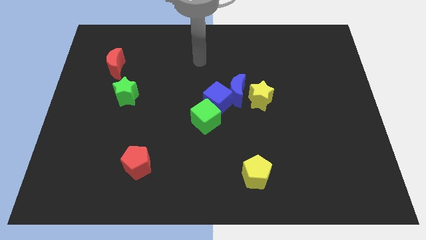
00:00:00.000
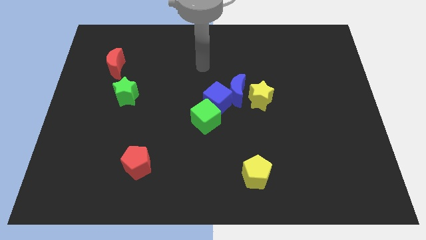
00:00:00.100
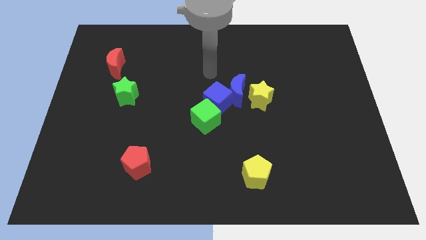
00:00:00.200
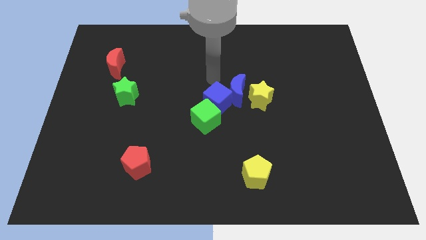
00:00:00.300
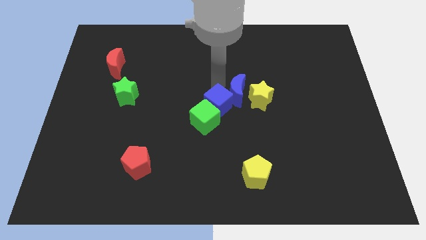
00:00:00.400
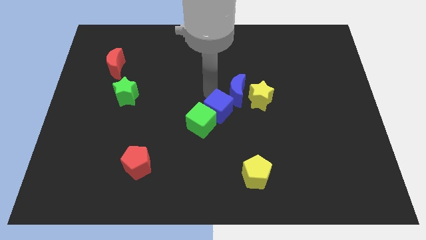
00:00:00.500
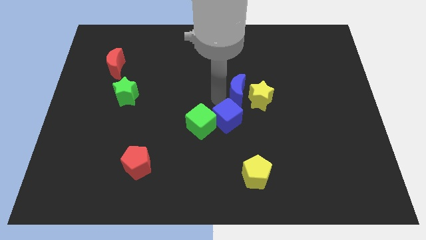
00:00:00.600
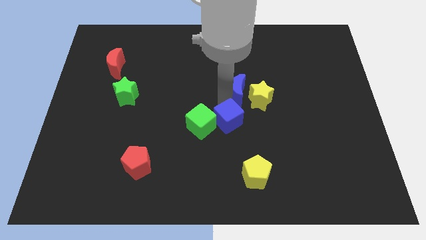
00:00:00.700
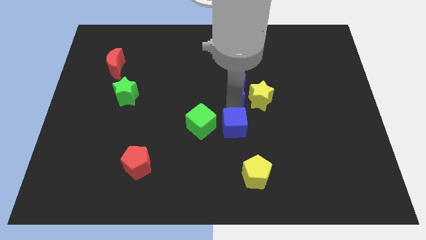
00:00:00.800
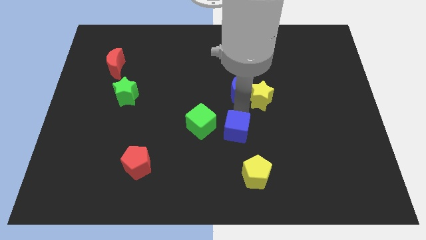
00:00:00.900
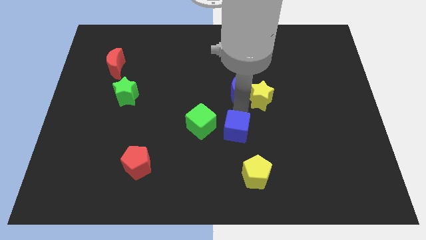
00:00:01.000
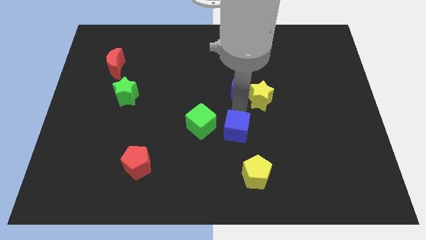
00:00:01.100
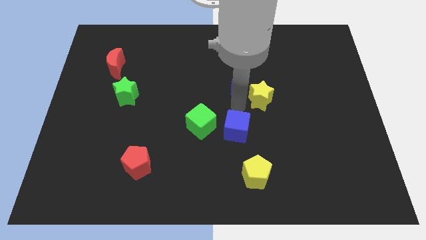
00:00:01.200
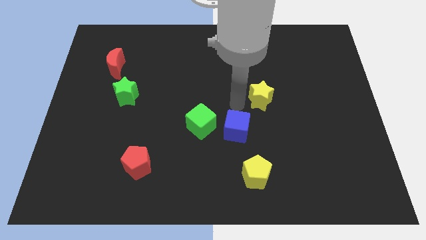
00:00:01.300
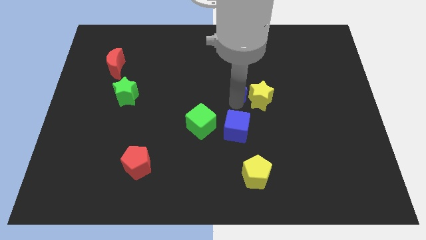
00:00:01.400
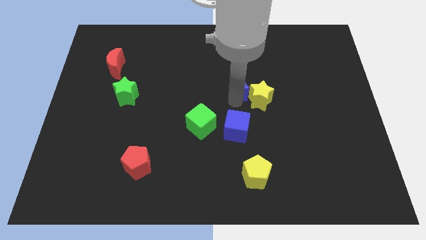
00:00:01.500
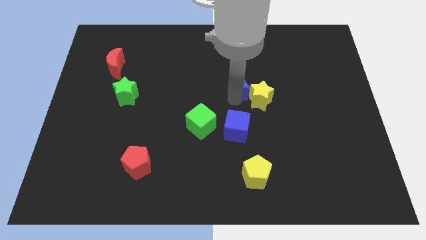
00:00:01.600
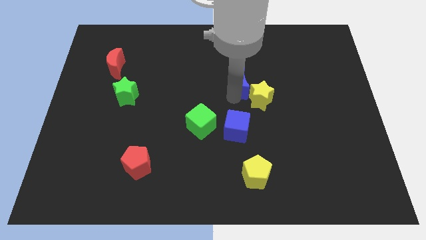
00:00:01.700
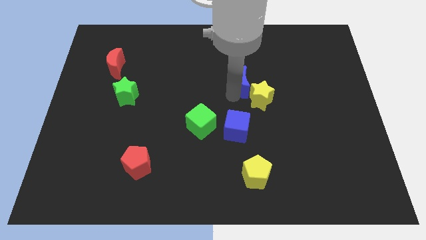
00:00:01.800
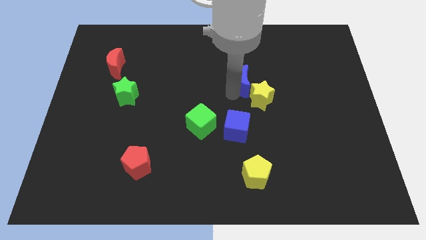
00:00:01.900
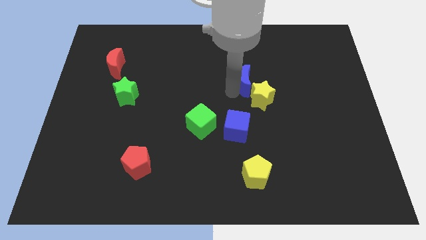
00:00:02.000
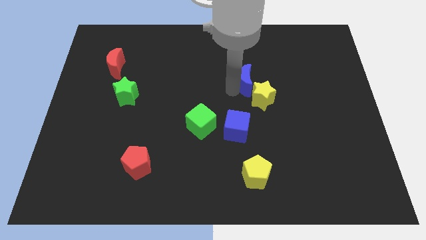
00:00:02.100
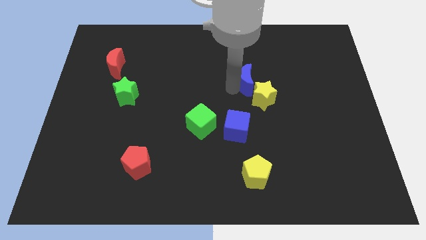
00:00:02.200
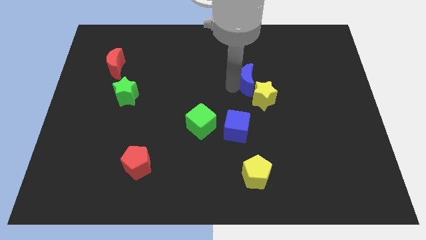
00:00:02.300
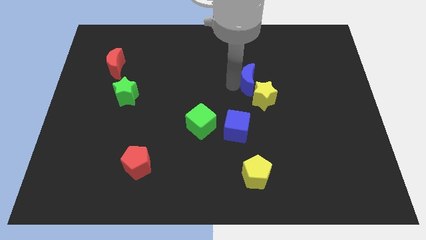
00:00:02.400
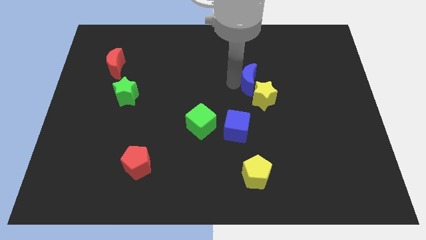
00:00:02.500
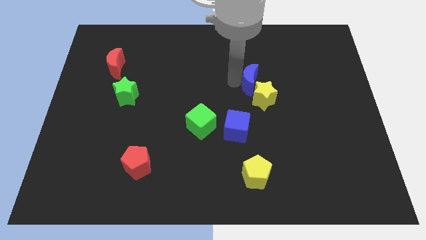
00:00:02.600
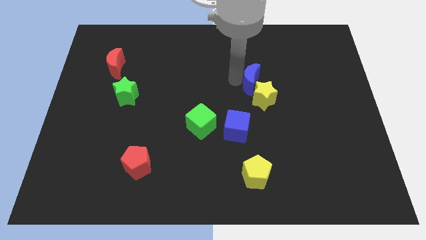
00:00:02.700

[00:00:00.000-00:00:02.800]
pull the blue moon apart from the blue cube and yellow star

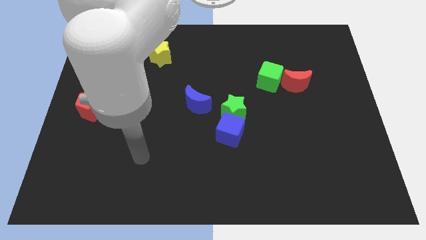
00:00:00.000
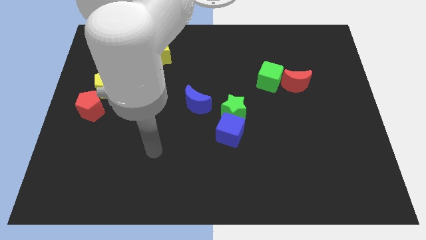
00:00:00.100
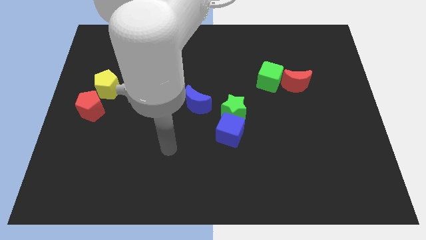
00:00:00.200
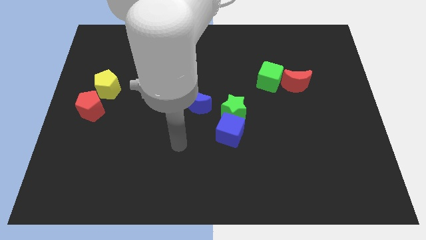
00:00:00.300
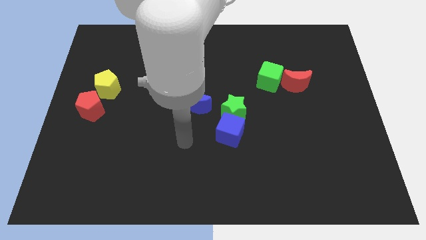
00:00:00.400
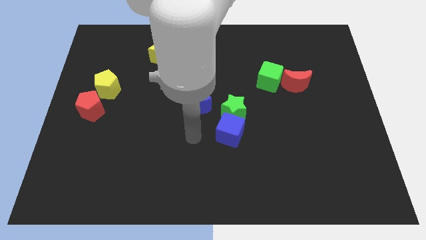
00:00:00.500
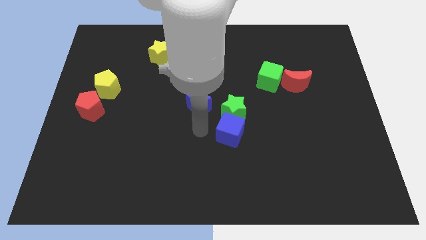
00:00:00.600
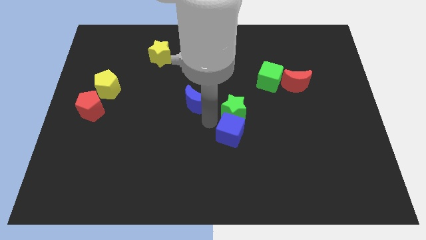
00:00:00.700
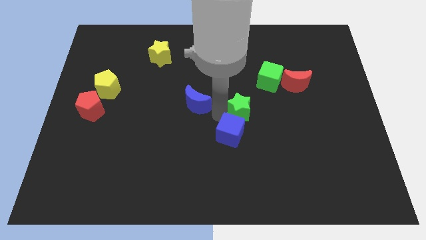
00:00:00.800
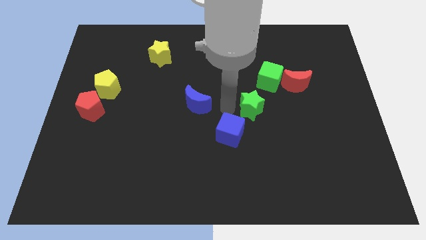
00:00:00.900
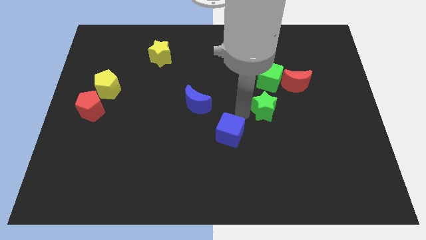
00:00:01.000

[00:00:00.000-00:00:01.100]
separate the blue cube from the green star

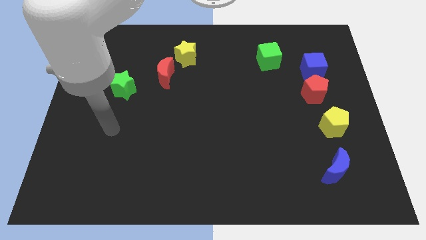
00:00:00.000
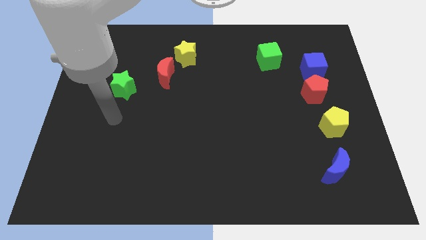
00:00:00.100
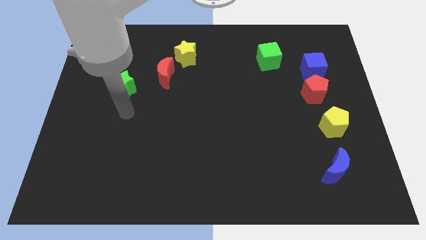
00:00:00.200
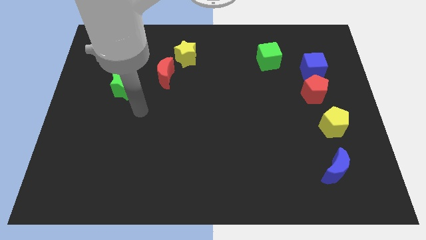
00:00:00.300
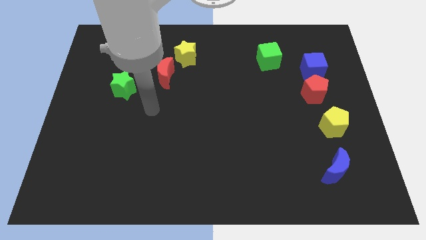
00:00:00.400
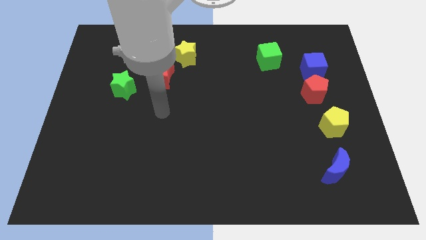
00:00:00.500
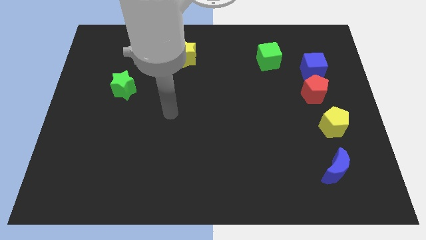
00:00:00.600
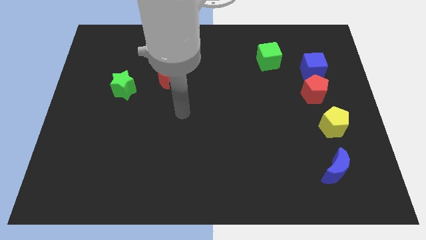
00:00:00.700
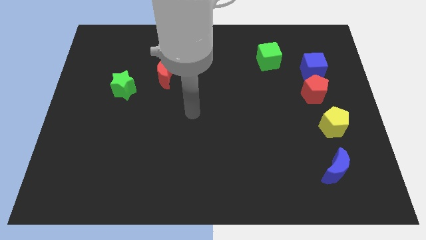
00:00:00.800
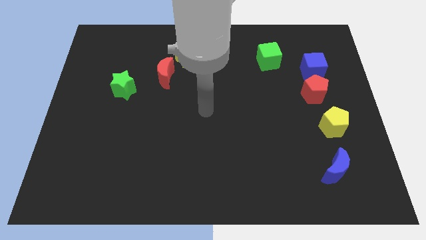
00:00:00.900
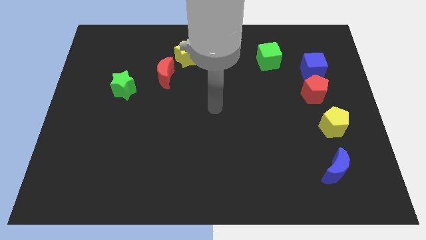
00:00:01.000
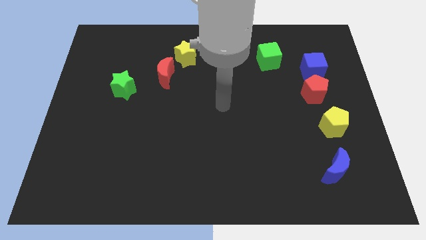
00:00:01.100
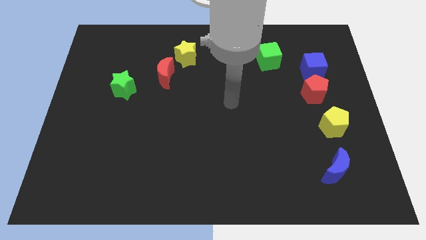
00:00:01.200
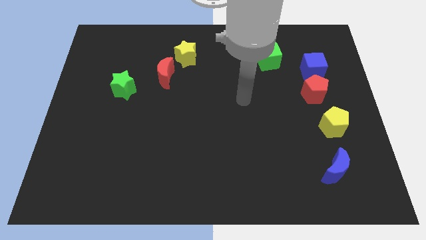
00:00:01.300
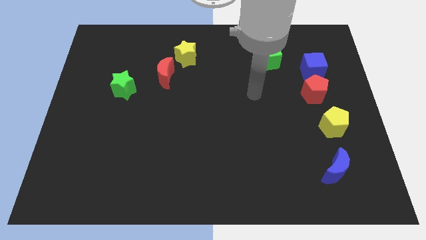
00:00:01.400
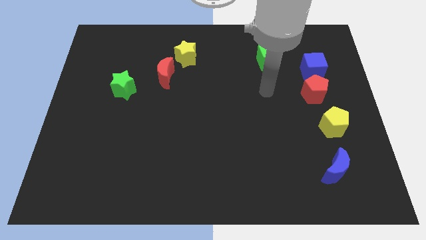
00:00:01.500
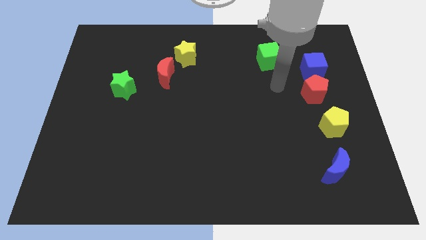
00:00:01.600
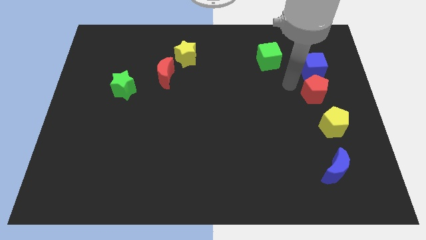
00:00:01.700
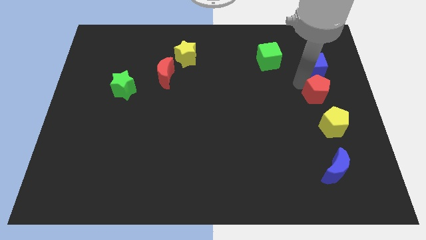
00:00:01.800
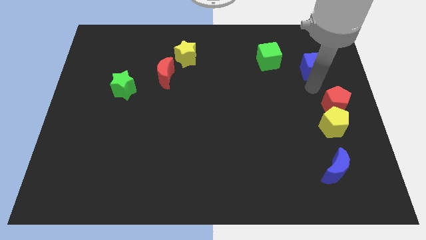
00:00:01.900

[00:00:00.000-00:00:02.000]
move the blue cube away from the red pentagon

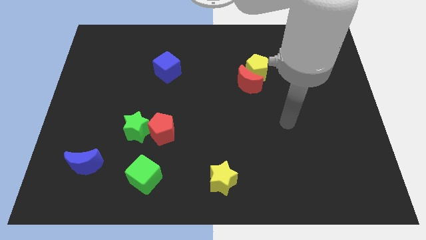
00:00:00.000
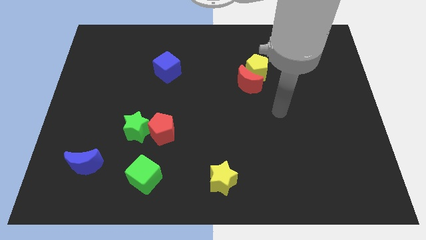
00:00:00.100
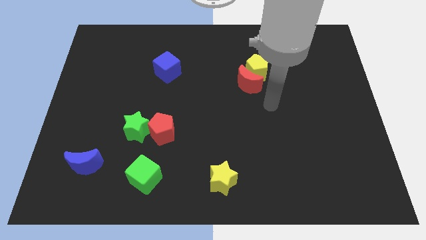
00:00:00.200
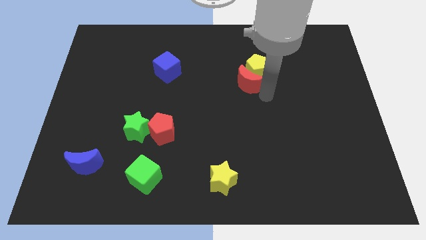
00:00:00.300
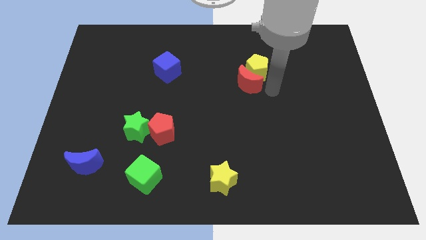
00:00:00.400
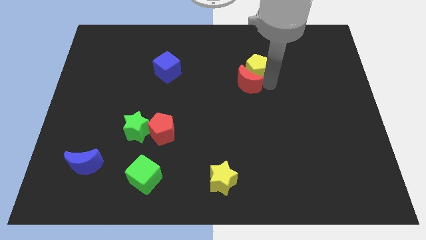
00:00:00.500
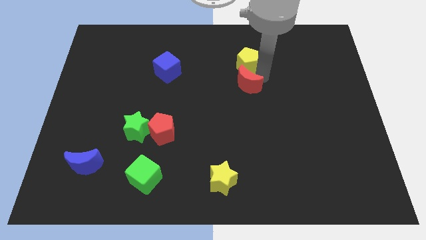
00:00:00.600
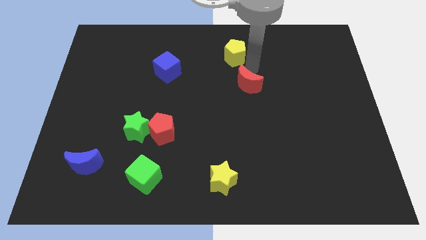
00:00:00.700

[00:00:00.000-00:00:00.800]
separate the red moon from the yellow pentagon

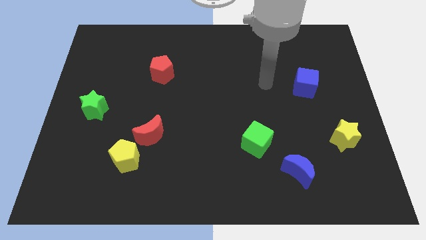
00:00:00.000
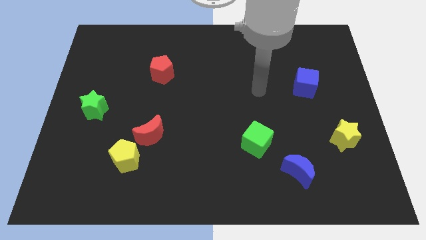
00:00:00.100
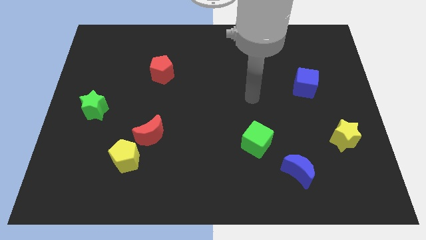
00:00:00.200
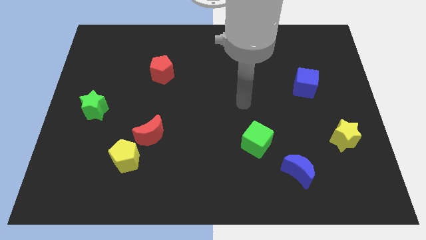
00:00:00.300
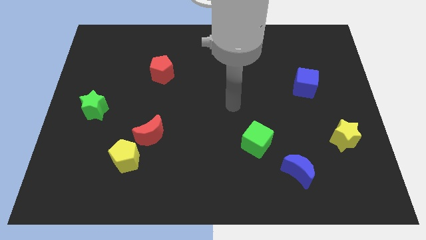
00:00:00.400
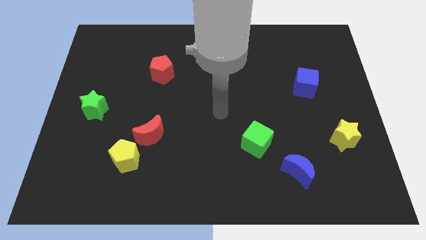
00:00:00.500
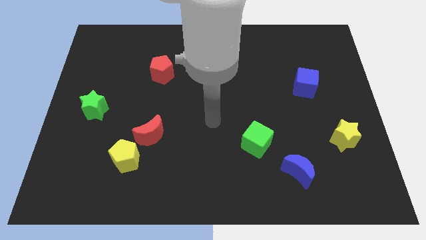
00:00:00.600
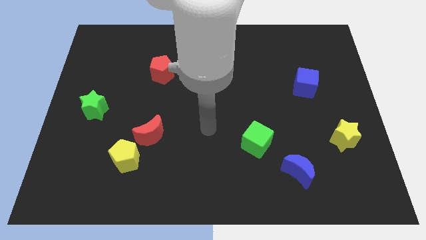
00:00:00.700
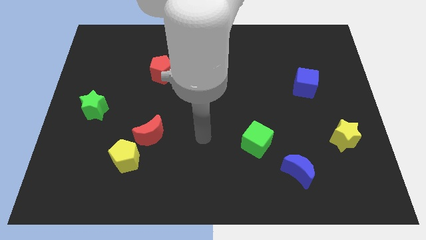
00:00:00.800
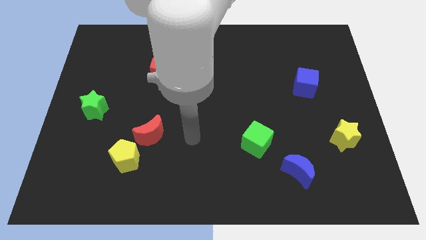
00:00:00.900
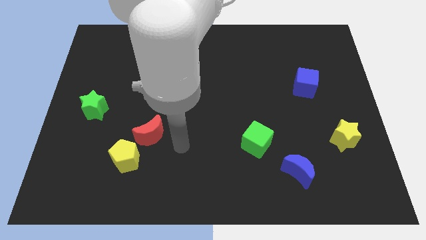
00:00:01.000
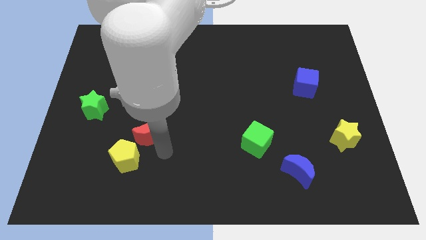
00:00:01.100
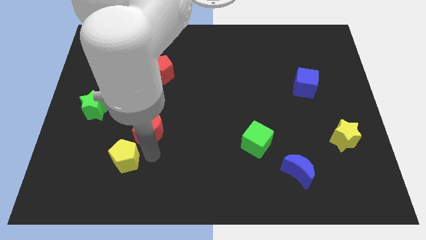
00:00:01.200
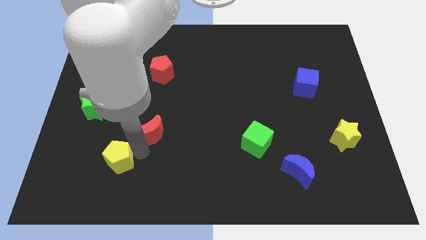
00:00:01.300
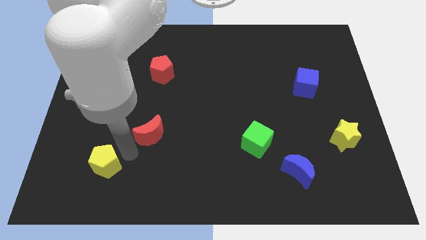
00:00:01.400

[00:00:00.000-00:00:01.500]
move the red moon away from the yellow pentagon

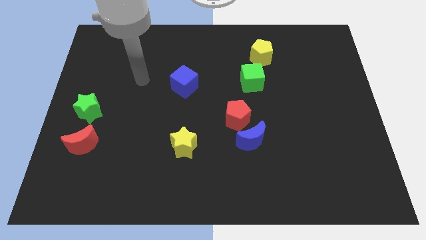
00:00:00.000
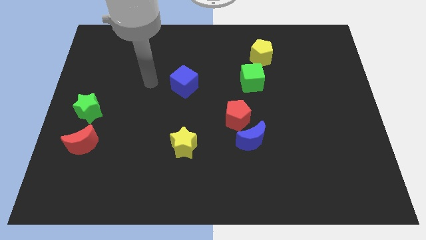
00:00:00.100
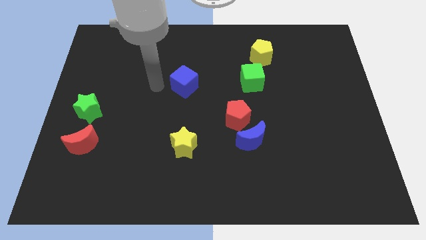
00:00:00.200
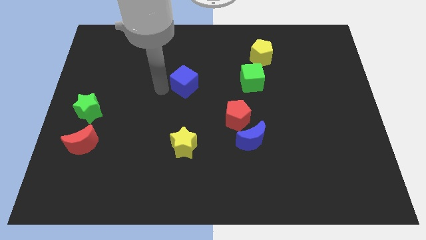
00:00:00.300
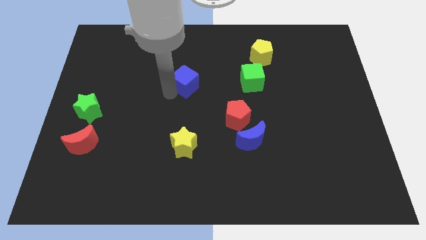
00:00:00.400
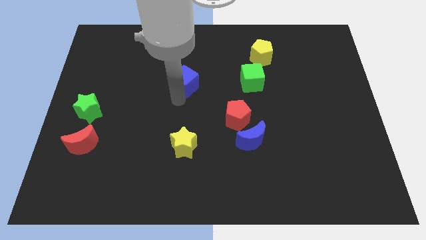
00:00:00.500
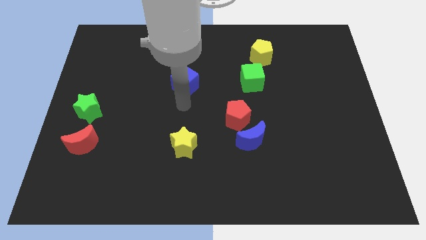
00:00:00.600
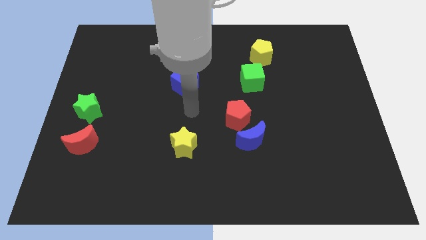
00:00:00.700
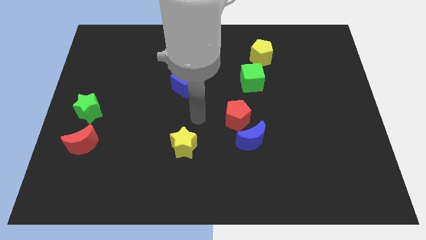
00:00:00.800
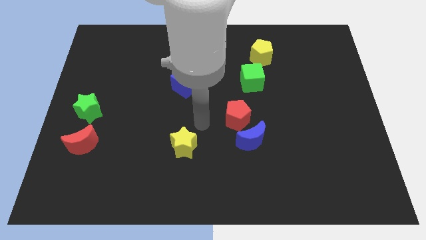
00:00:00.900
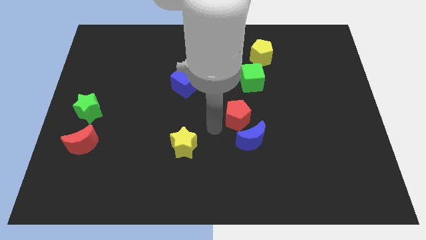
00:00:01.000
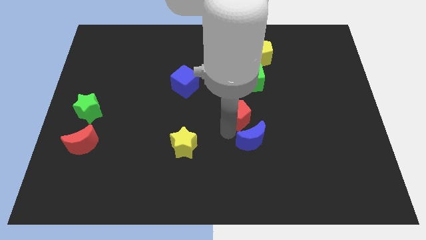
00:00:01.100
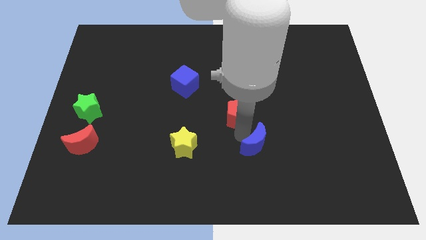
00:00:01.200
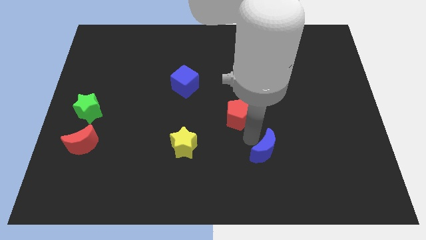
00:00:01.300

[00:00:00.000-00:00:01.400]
separate the red pentagon from the blue moon
